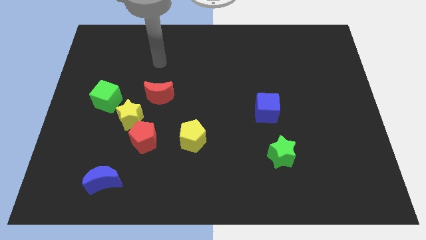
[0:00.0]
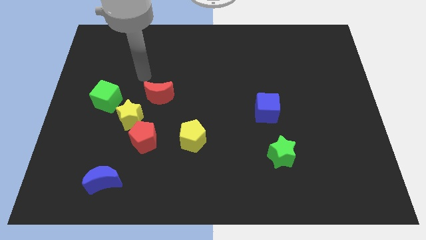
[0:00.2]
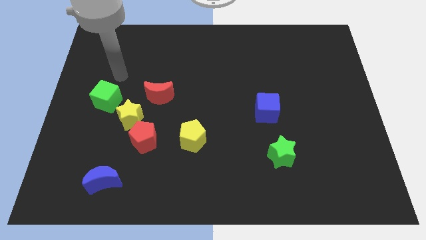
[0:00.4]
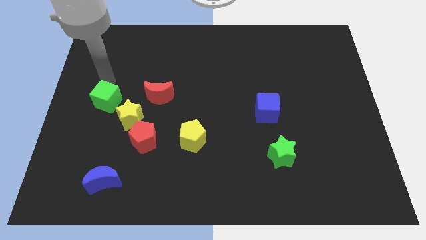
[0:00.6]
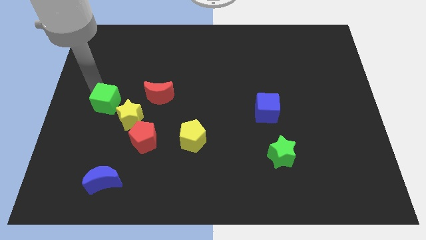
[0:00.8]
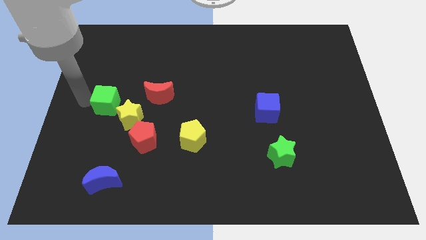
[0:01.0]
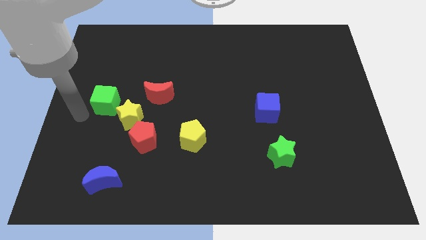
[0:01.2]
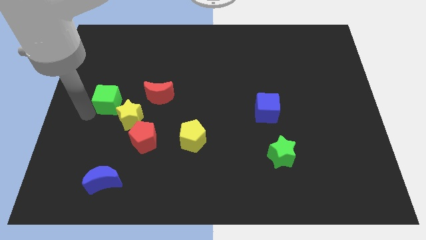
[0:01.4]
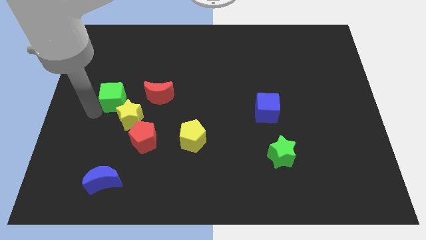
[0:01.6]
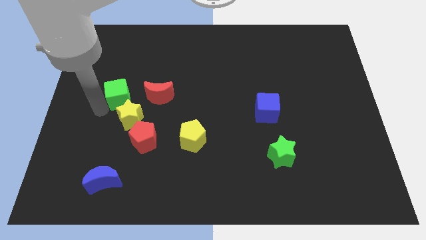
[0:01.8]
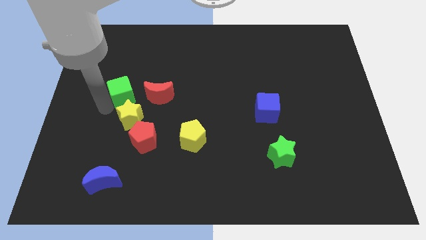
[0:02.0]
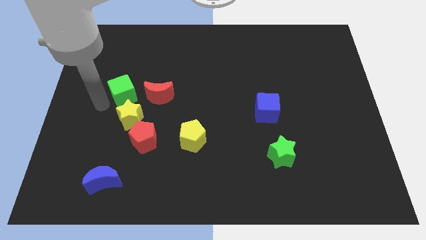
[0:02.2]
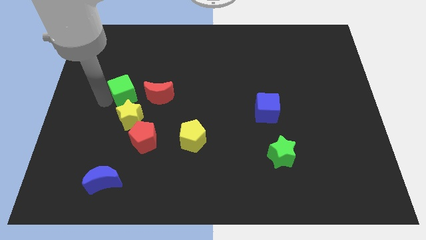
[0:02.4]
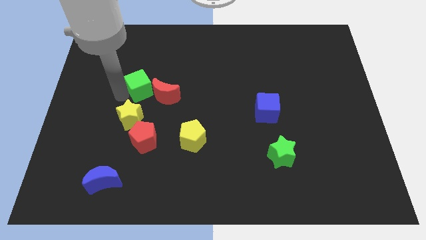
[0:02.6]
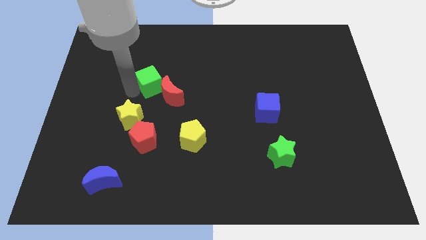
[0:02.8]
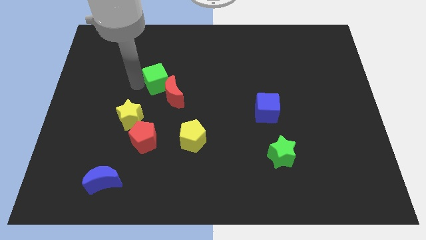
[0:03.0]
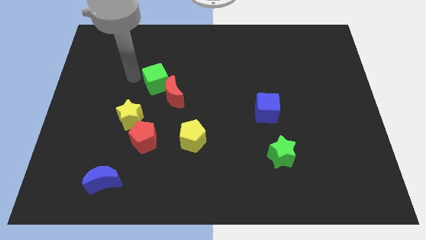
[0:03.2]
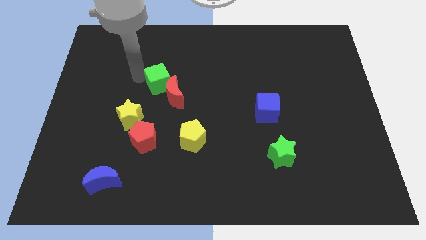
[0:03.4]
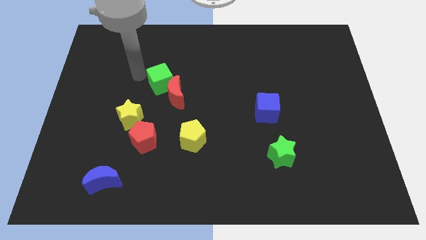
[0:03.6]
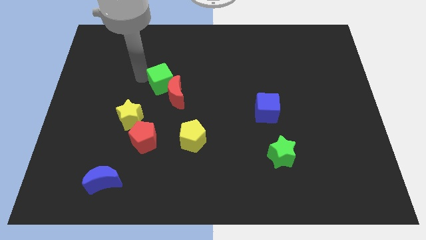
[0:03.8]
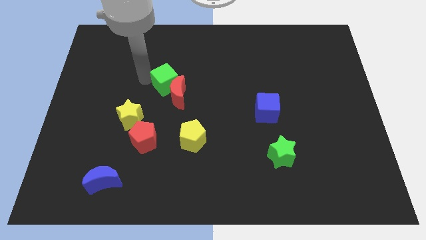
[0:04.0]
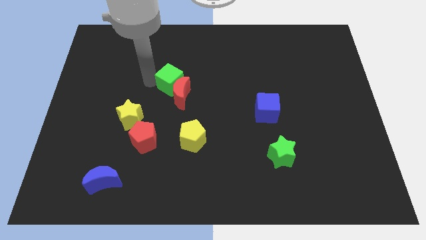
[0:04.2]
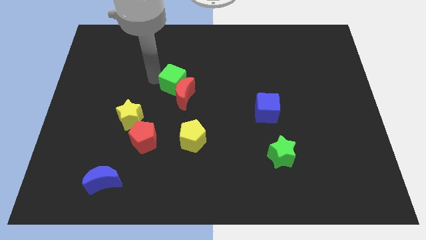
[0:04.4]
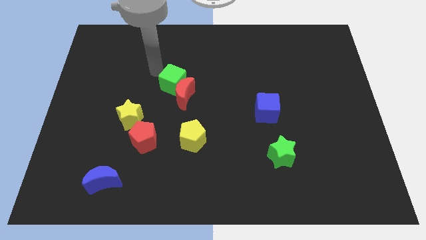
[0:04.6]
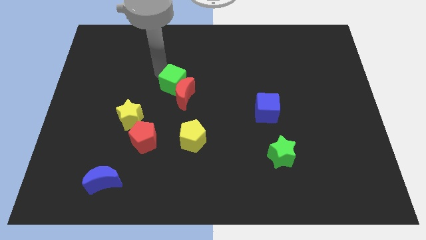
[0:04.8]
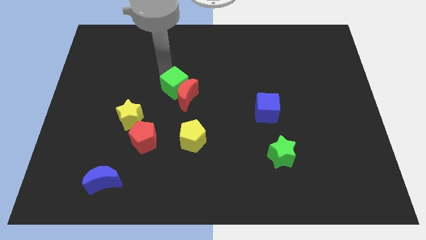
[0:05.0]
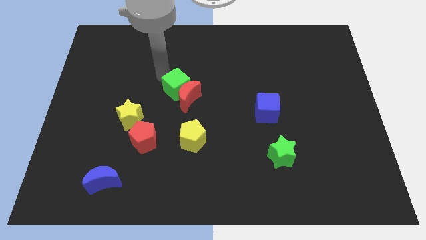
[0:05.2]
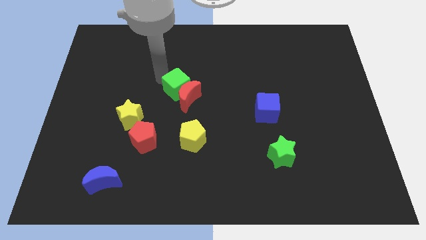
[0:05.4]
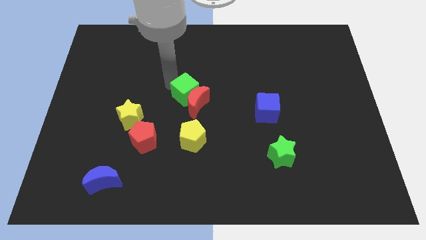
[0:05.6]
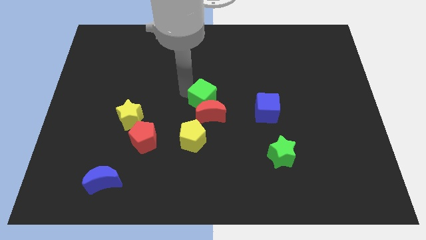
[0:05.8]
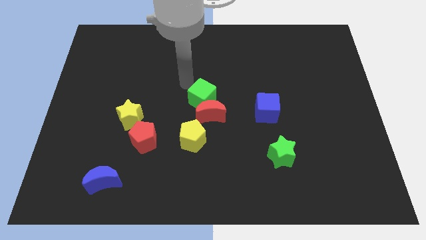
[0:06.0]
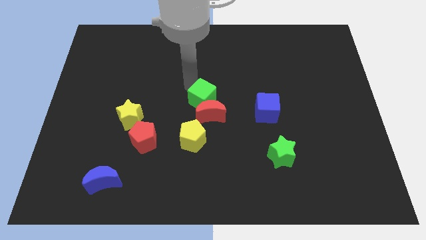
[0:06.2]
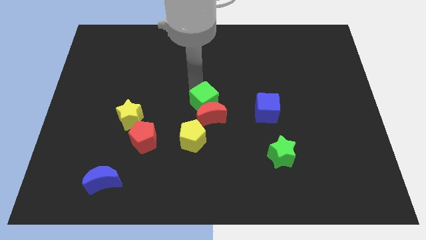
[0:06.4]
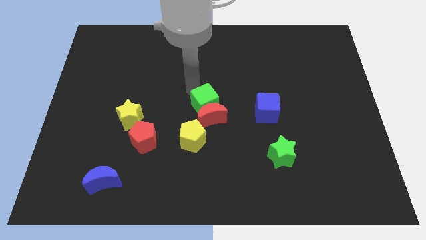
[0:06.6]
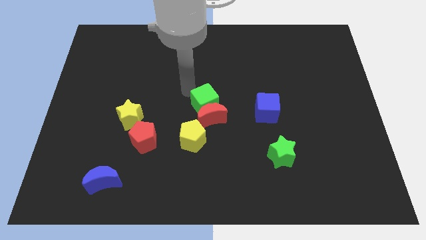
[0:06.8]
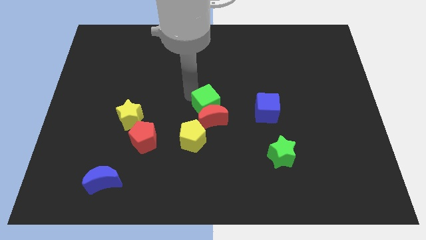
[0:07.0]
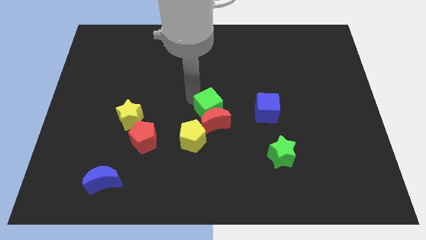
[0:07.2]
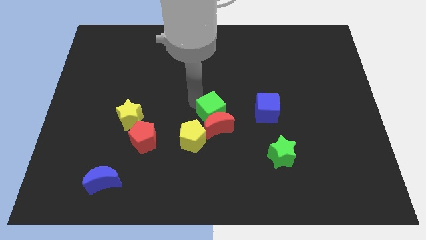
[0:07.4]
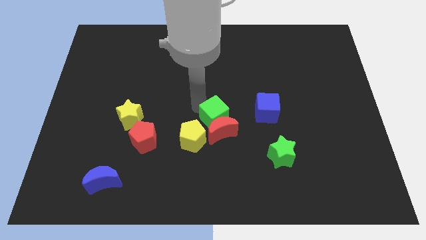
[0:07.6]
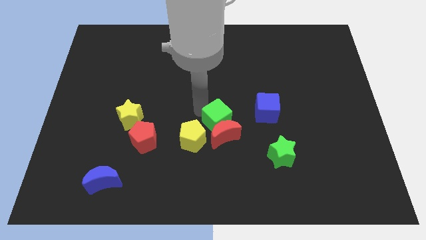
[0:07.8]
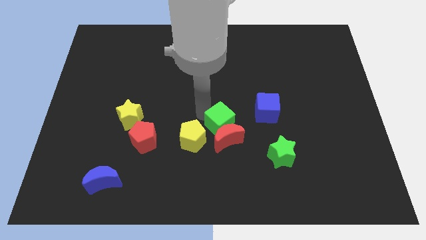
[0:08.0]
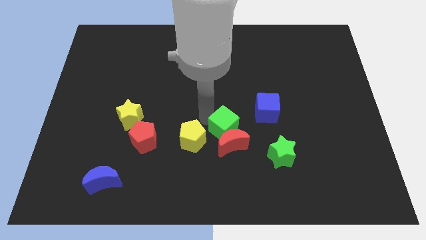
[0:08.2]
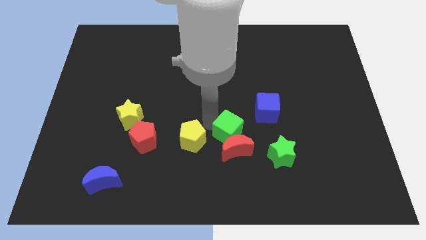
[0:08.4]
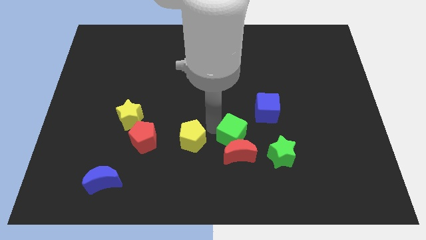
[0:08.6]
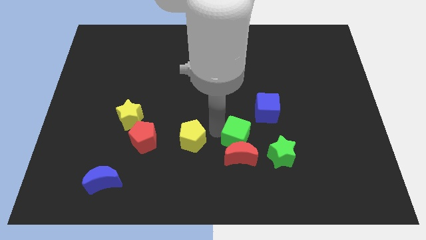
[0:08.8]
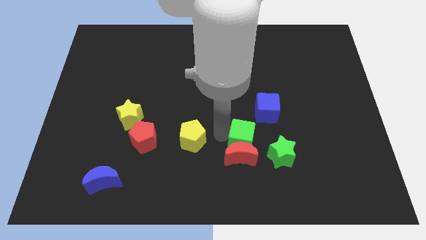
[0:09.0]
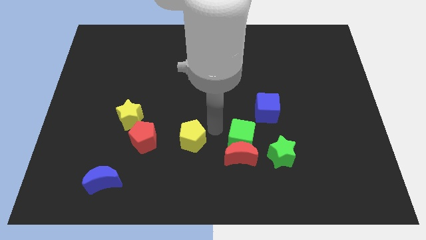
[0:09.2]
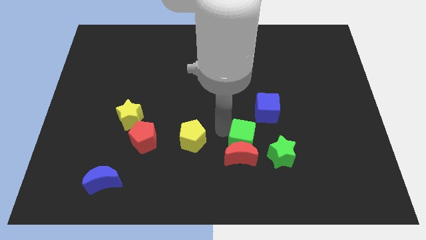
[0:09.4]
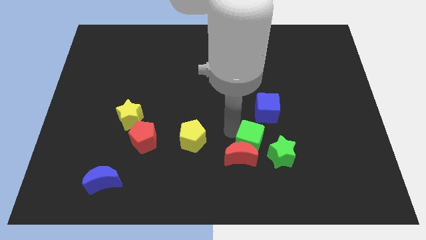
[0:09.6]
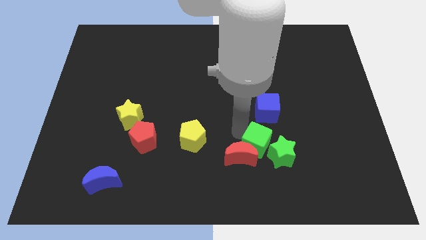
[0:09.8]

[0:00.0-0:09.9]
slide the green cube close to the green star

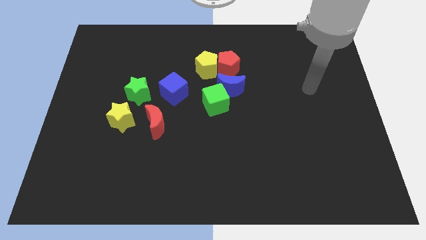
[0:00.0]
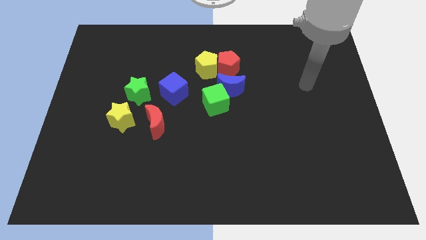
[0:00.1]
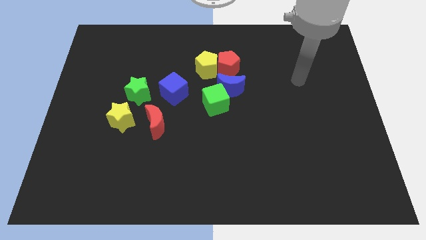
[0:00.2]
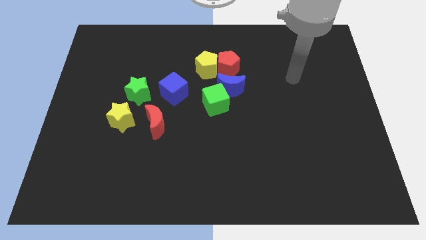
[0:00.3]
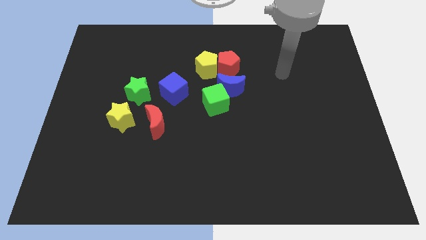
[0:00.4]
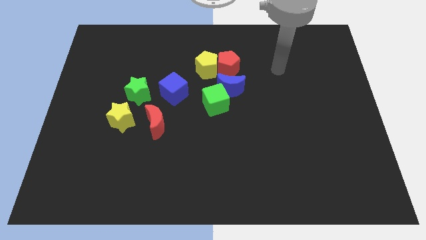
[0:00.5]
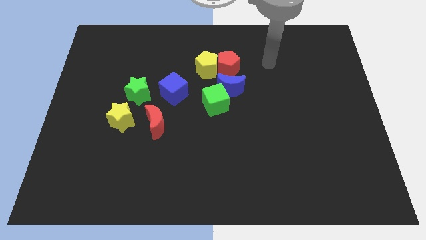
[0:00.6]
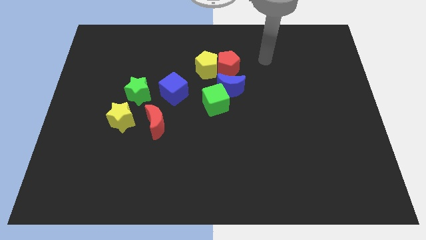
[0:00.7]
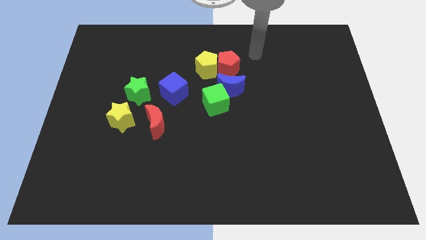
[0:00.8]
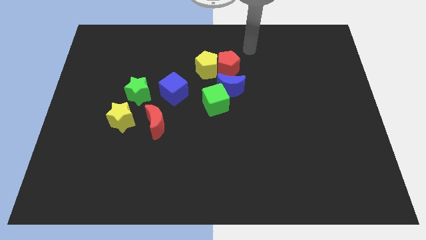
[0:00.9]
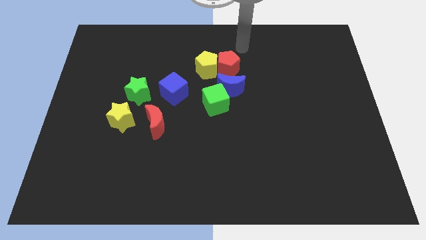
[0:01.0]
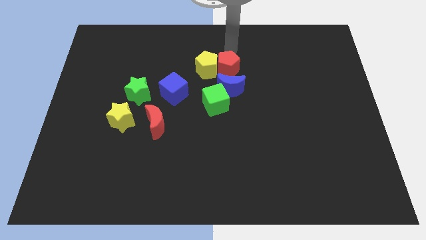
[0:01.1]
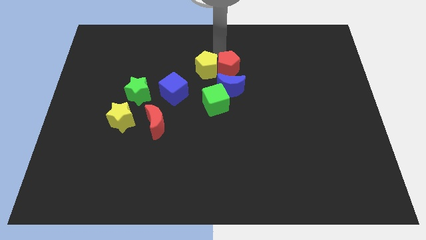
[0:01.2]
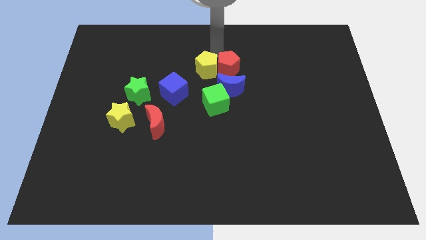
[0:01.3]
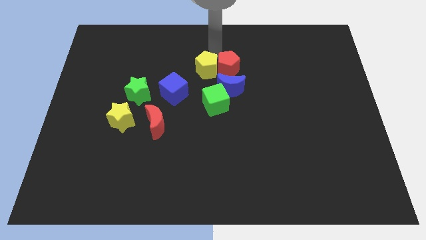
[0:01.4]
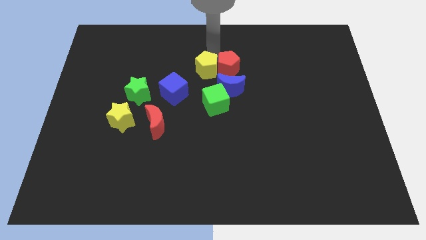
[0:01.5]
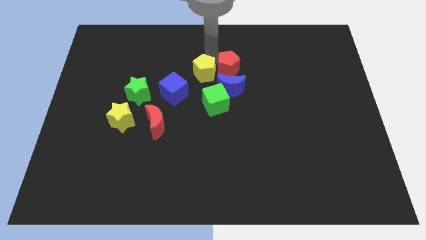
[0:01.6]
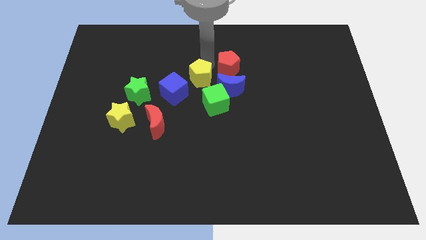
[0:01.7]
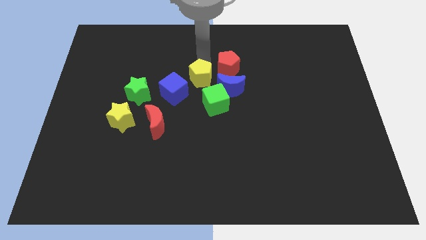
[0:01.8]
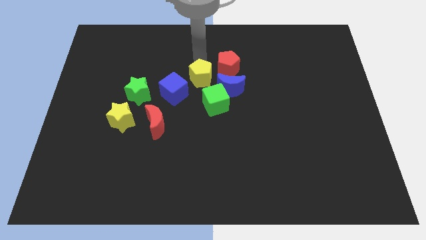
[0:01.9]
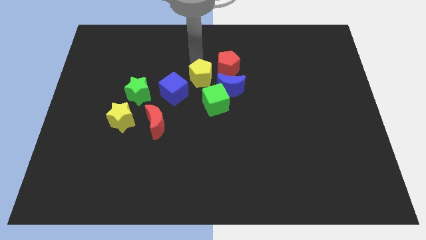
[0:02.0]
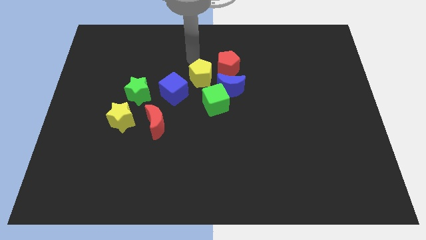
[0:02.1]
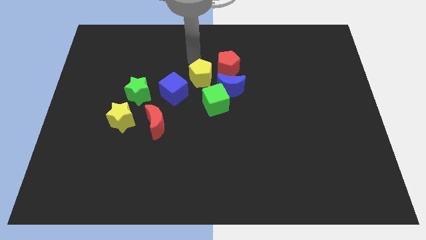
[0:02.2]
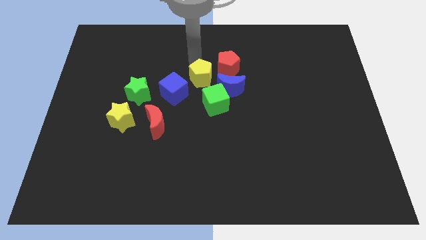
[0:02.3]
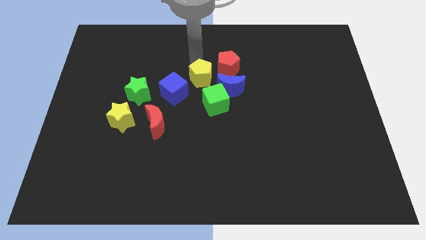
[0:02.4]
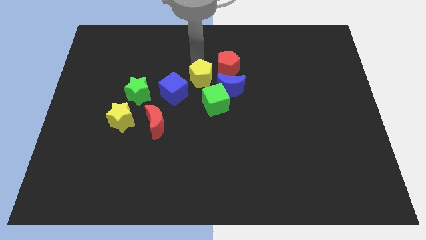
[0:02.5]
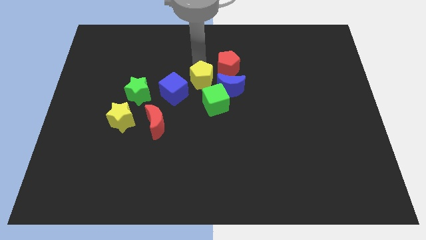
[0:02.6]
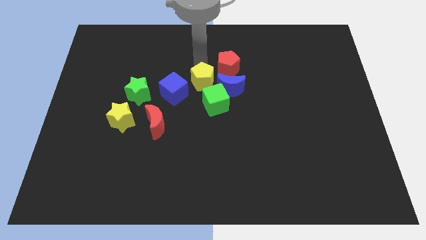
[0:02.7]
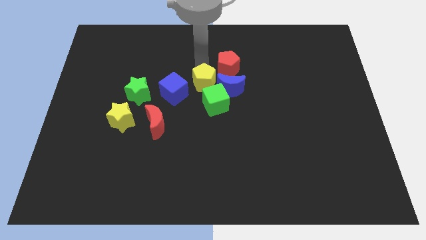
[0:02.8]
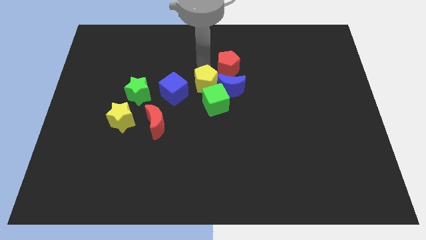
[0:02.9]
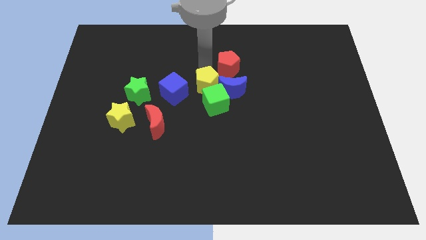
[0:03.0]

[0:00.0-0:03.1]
move the yellow pentagon close to the green cube
